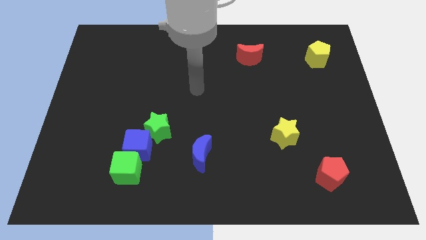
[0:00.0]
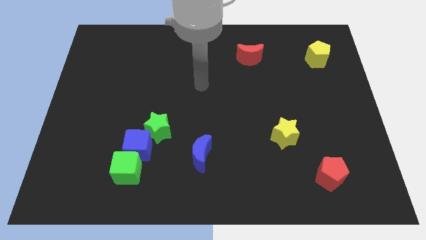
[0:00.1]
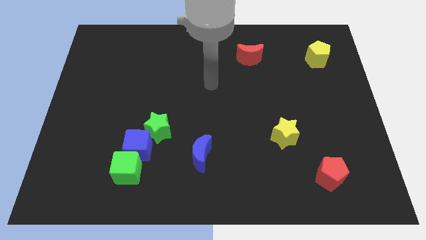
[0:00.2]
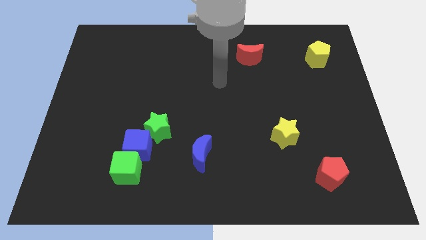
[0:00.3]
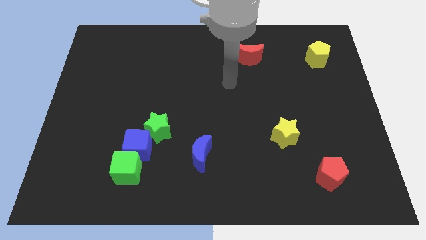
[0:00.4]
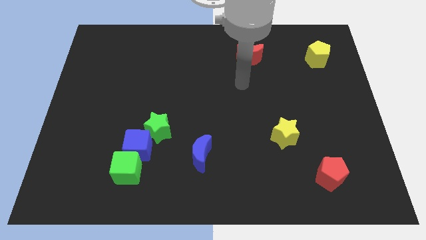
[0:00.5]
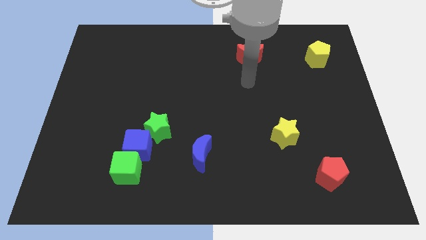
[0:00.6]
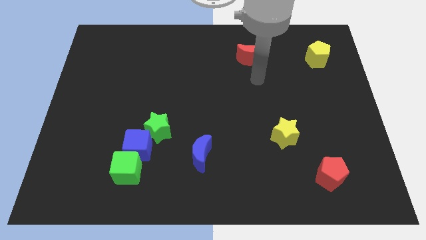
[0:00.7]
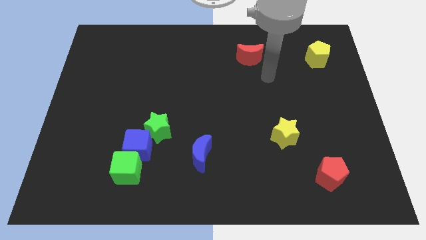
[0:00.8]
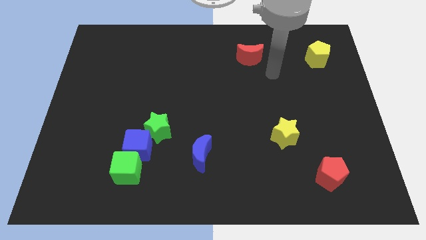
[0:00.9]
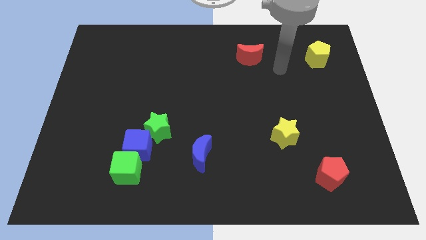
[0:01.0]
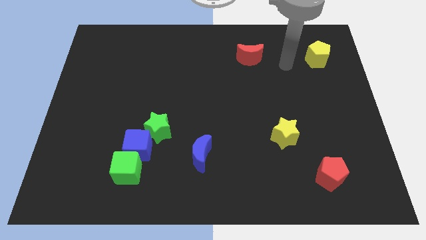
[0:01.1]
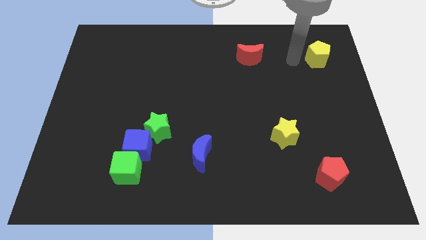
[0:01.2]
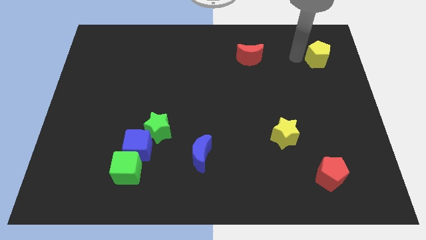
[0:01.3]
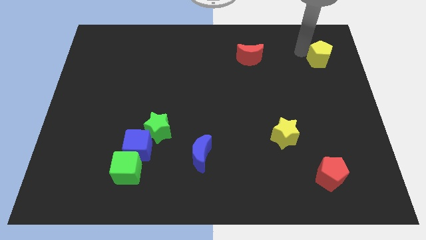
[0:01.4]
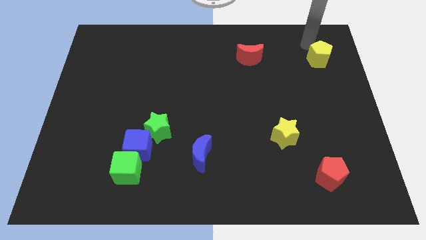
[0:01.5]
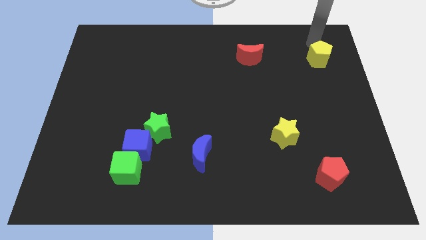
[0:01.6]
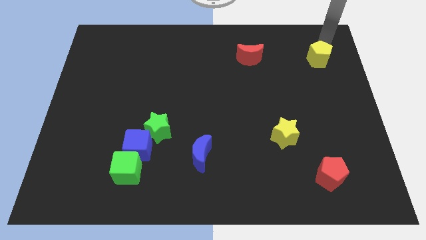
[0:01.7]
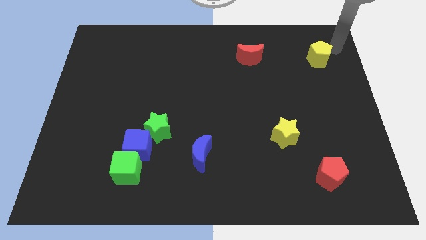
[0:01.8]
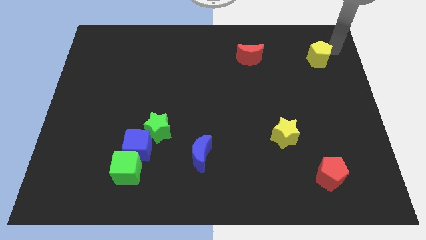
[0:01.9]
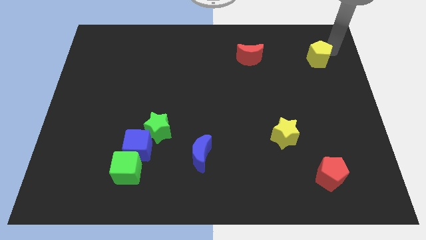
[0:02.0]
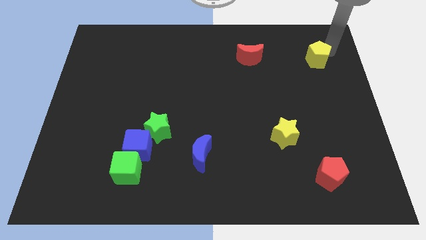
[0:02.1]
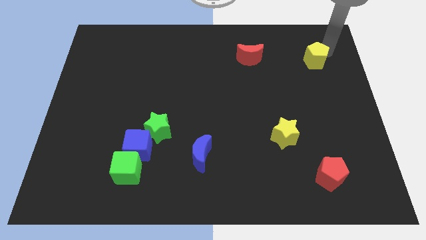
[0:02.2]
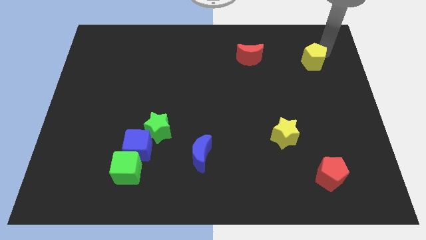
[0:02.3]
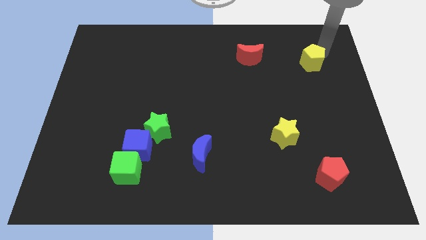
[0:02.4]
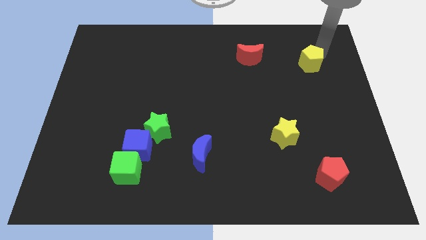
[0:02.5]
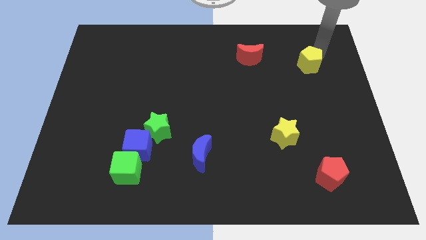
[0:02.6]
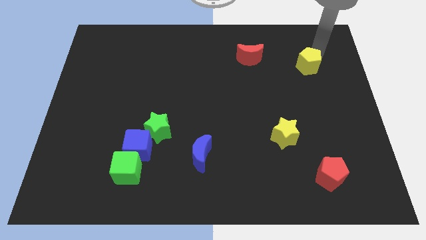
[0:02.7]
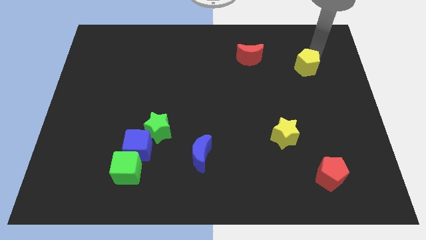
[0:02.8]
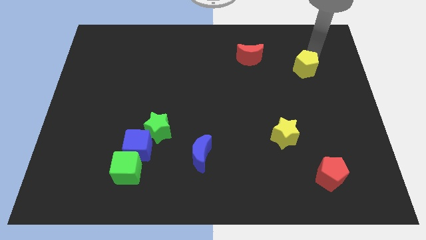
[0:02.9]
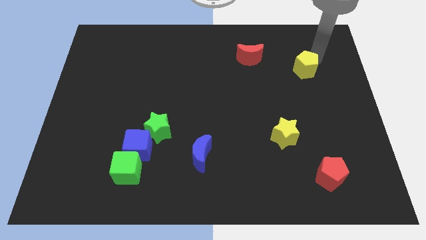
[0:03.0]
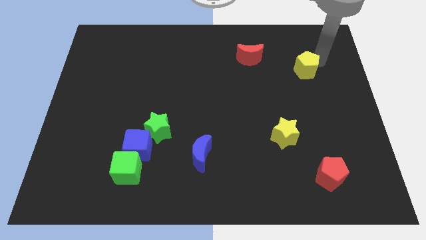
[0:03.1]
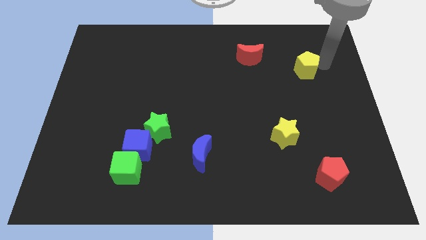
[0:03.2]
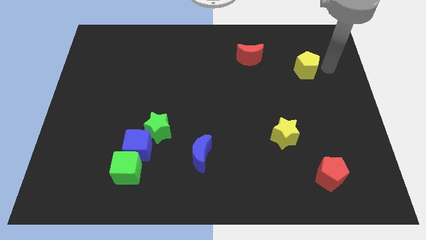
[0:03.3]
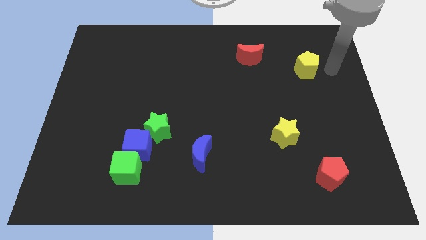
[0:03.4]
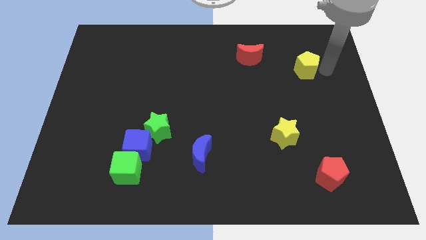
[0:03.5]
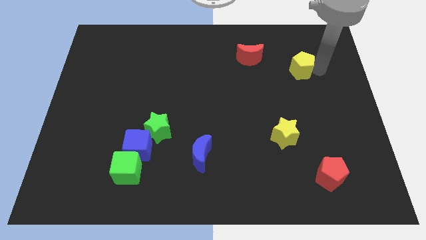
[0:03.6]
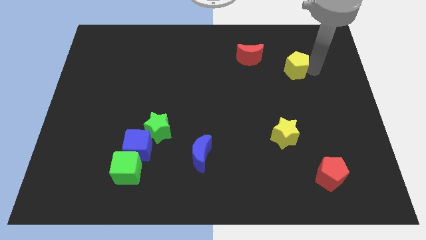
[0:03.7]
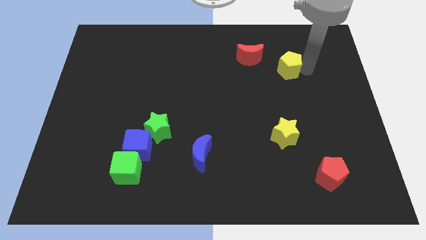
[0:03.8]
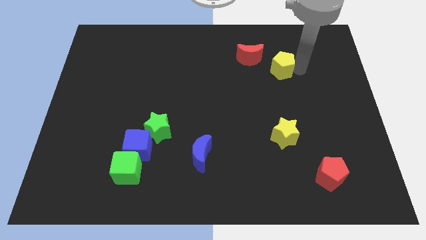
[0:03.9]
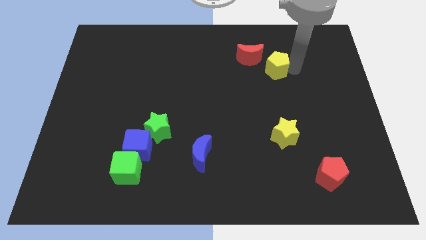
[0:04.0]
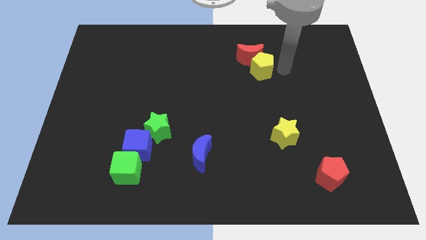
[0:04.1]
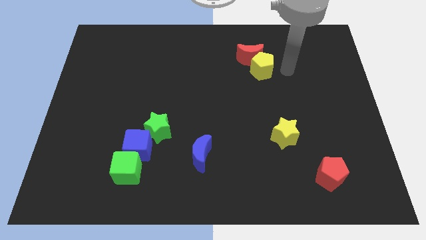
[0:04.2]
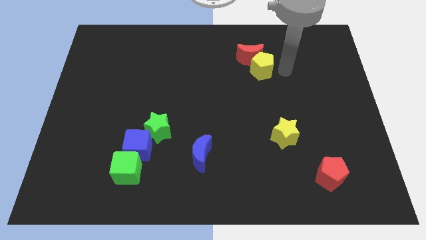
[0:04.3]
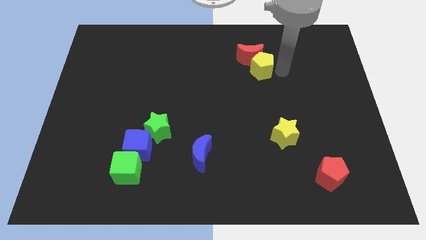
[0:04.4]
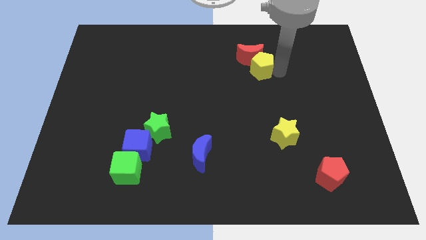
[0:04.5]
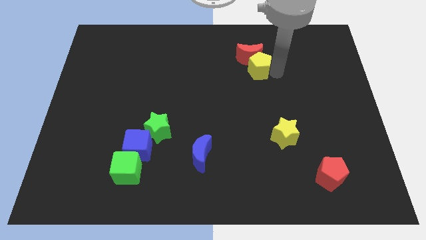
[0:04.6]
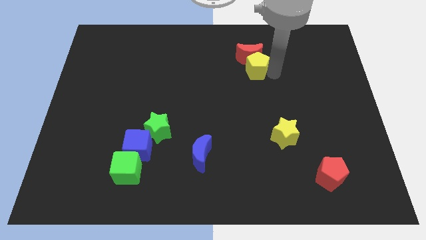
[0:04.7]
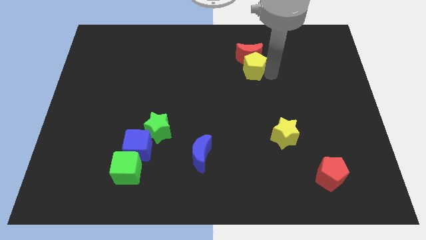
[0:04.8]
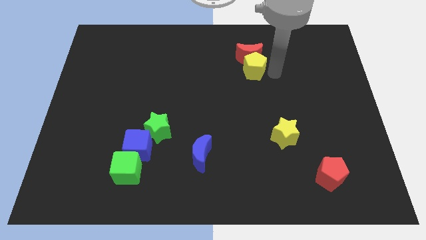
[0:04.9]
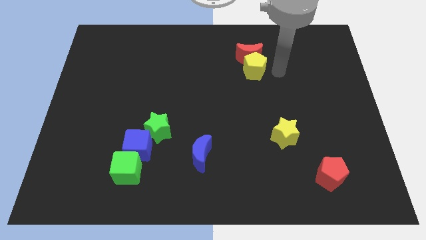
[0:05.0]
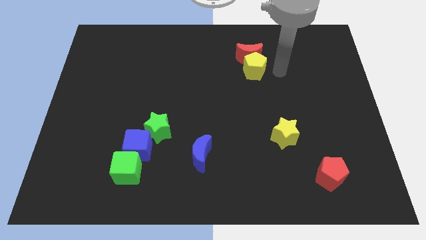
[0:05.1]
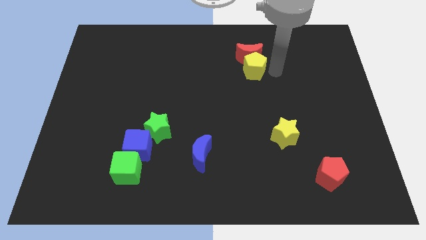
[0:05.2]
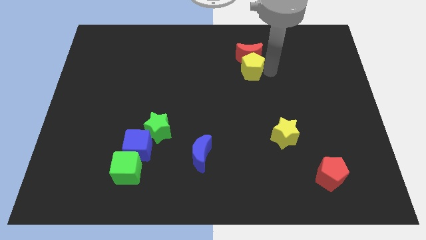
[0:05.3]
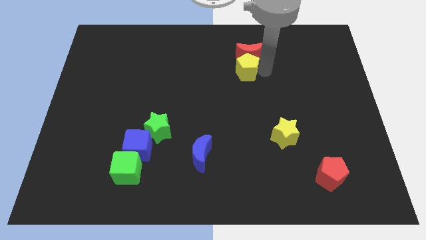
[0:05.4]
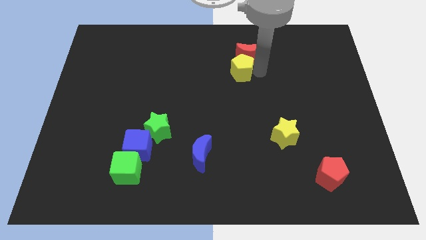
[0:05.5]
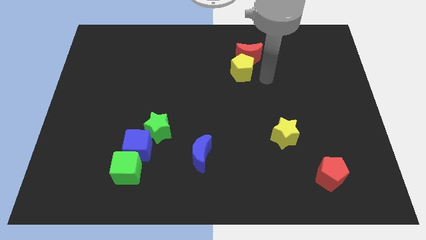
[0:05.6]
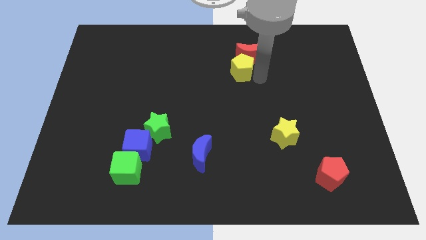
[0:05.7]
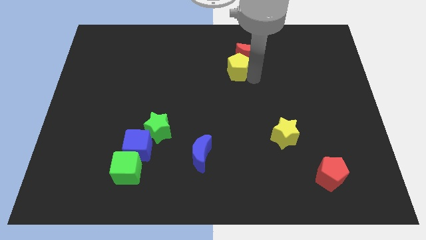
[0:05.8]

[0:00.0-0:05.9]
push the yellow pentagon left

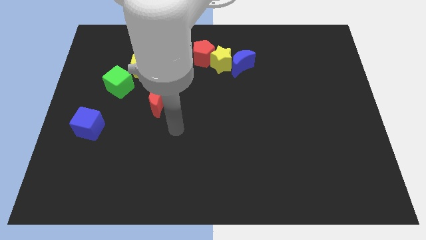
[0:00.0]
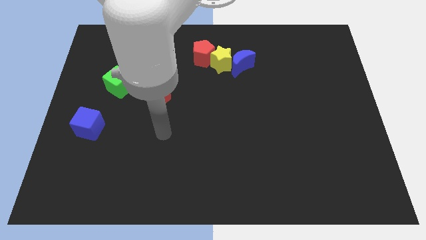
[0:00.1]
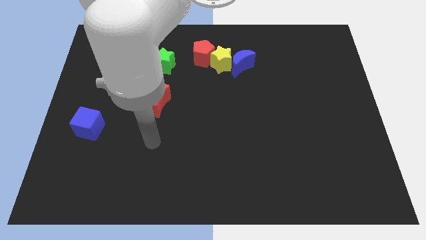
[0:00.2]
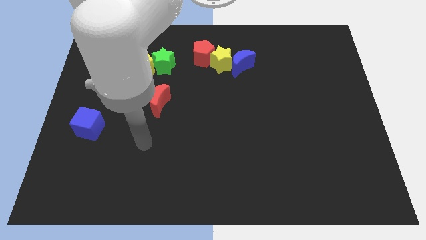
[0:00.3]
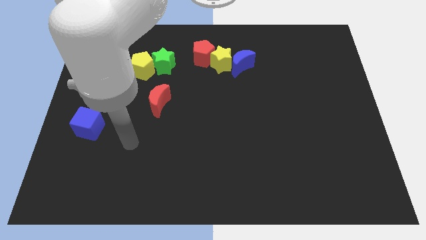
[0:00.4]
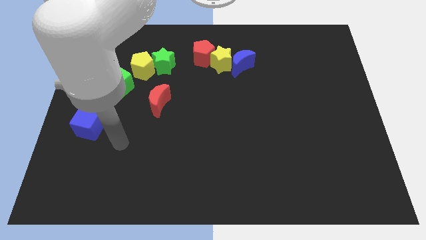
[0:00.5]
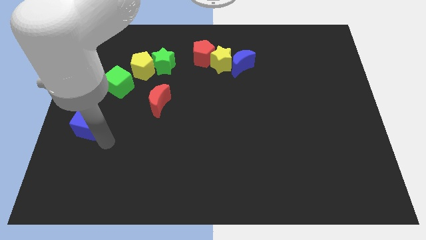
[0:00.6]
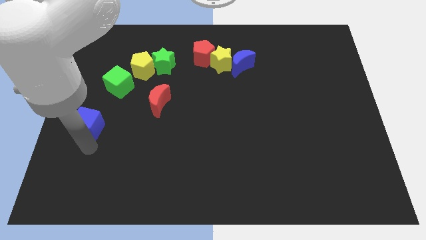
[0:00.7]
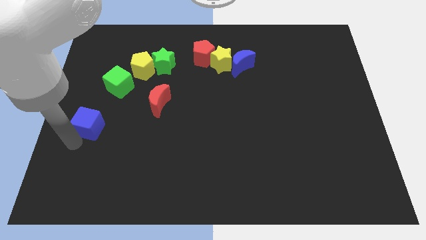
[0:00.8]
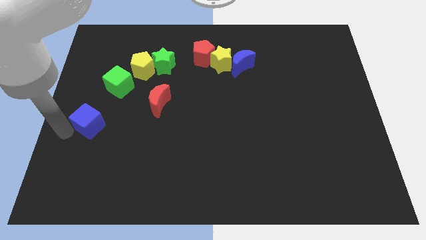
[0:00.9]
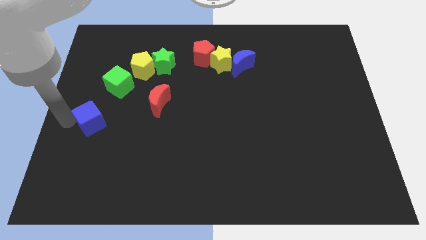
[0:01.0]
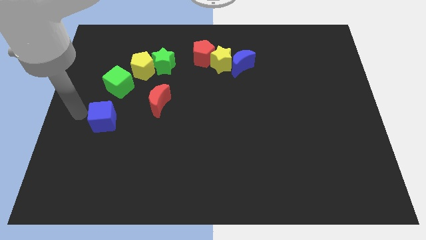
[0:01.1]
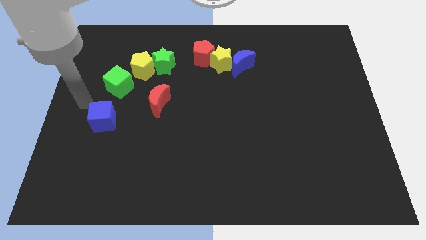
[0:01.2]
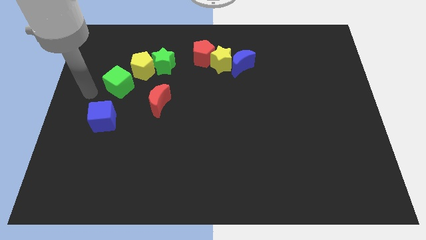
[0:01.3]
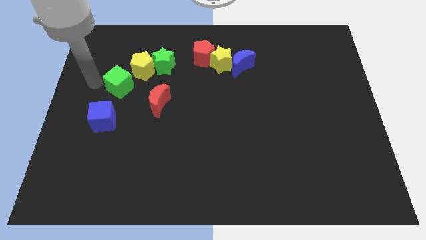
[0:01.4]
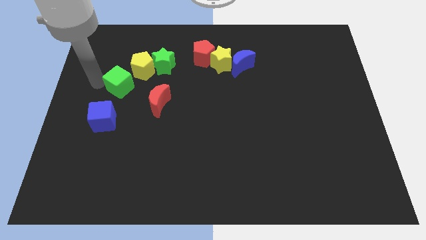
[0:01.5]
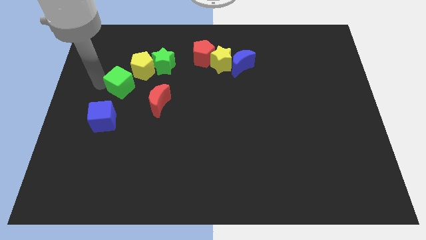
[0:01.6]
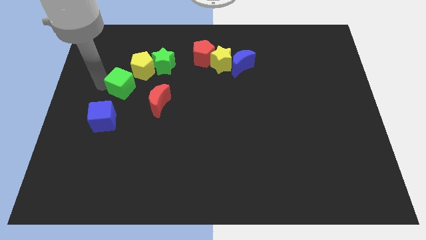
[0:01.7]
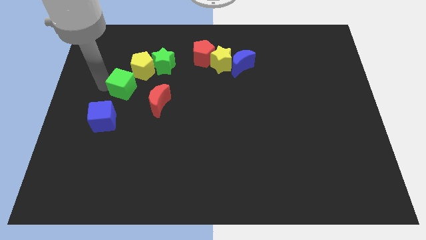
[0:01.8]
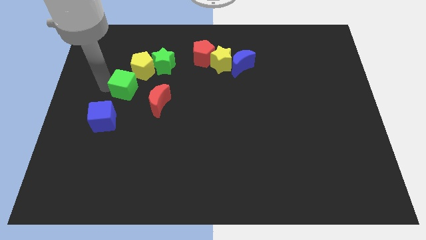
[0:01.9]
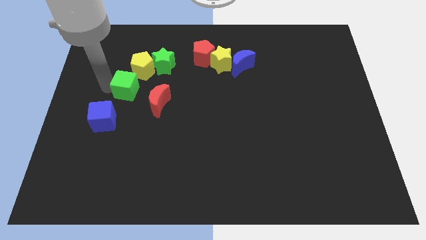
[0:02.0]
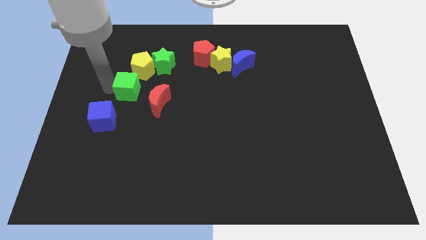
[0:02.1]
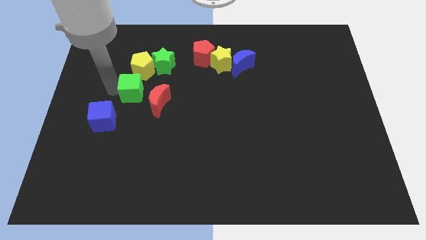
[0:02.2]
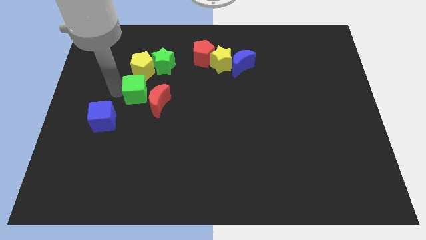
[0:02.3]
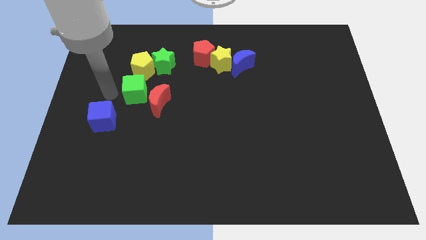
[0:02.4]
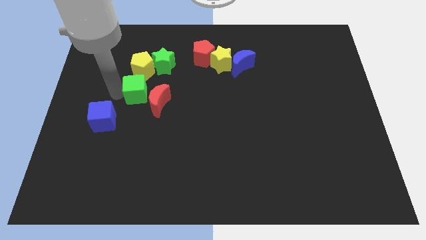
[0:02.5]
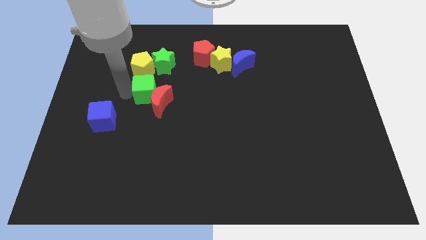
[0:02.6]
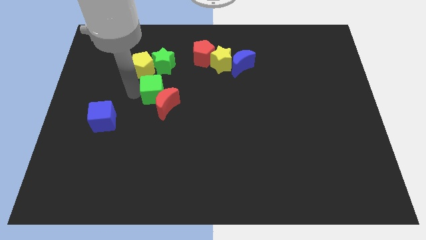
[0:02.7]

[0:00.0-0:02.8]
slightly slide the green cube right
